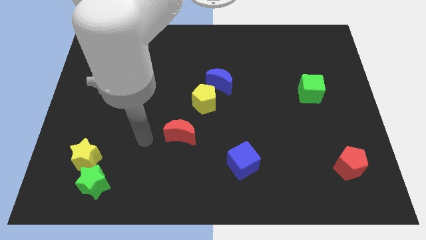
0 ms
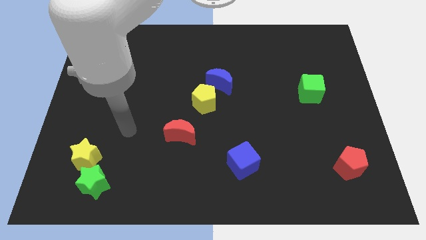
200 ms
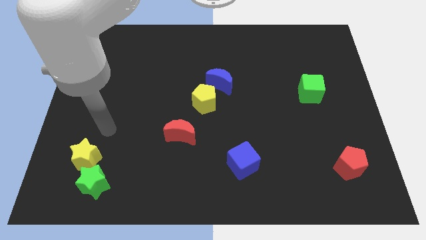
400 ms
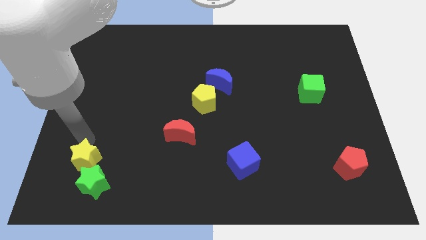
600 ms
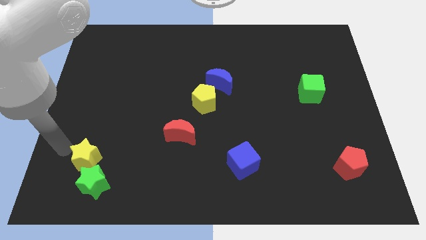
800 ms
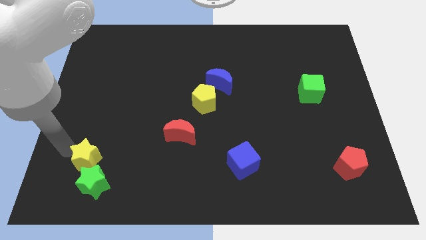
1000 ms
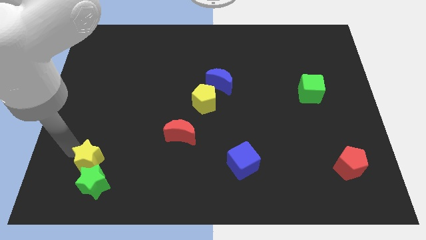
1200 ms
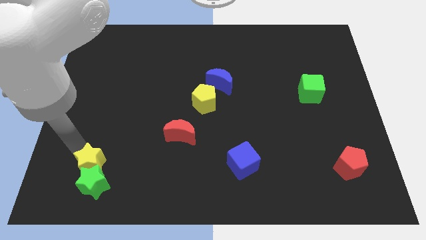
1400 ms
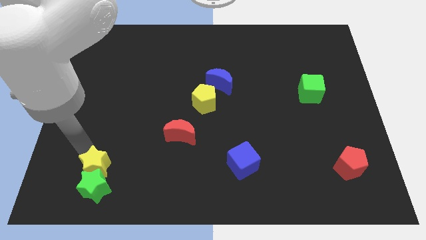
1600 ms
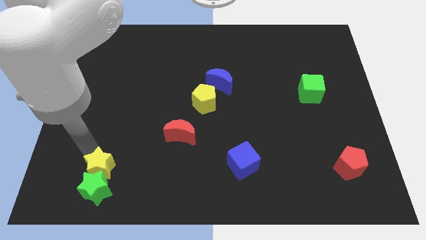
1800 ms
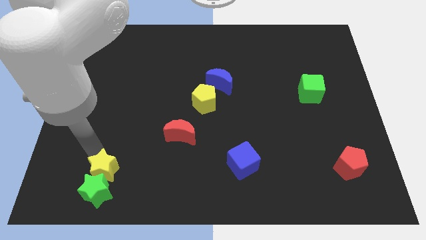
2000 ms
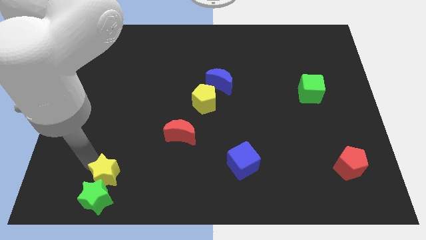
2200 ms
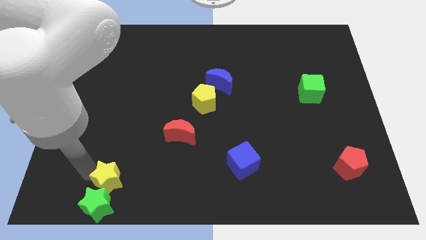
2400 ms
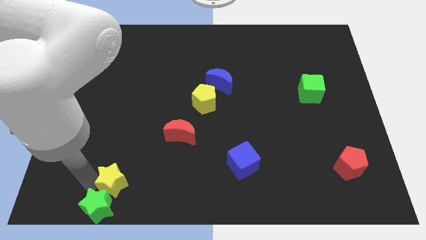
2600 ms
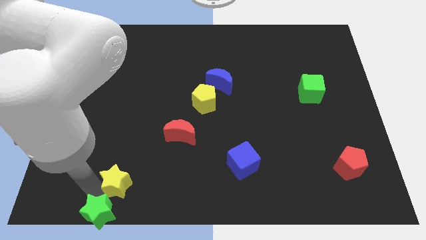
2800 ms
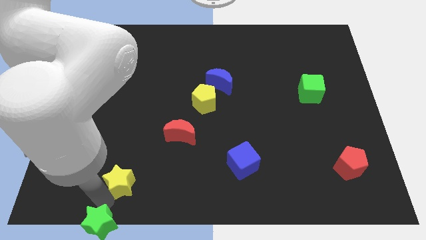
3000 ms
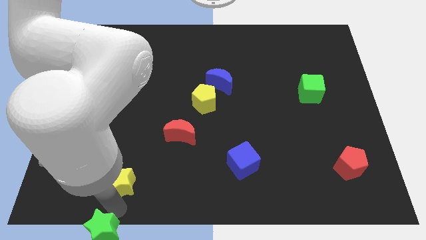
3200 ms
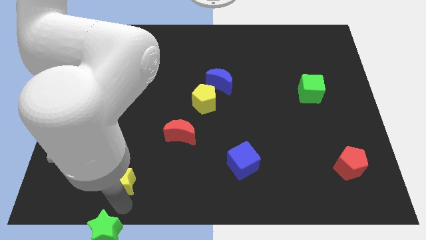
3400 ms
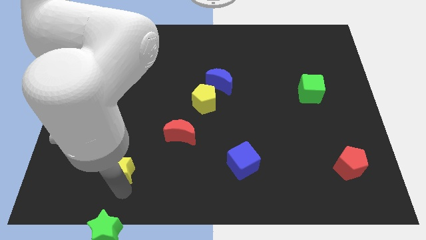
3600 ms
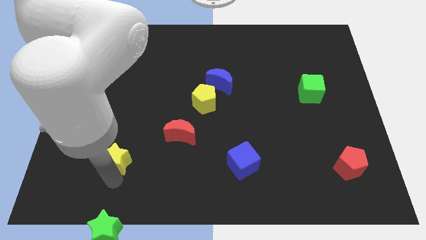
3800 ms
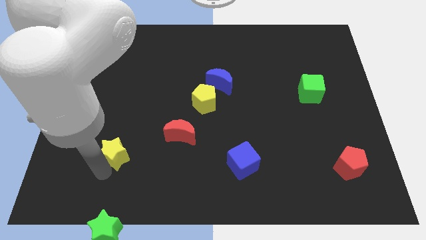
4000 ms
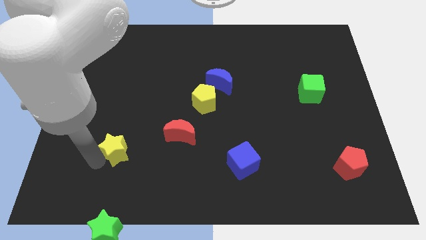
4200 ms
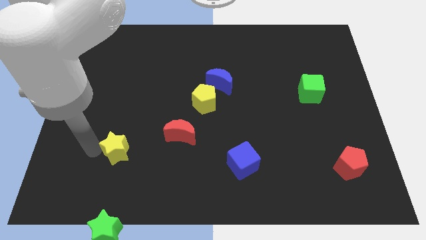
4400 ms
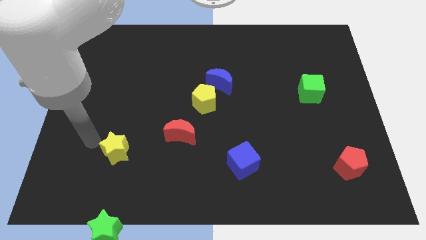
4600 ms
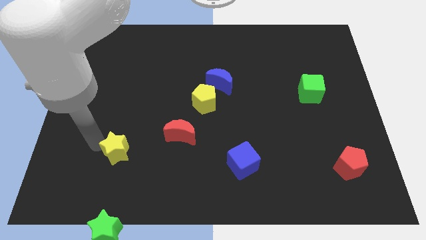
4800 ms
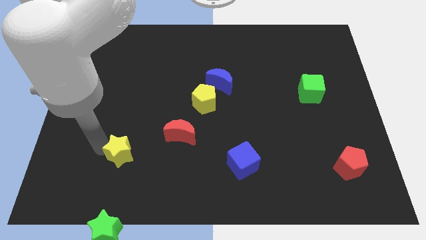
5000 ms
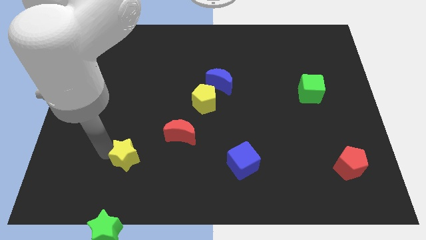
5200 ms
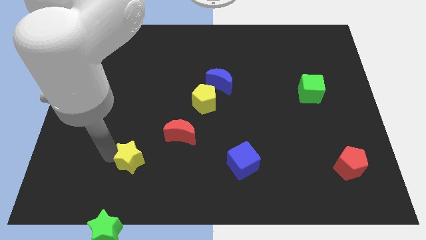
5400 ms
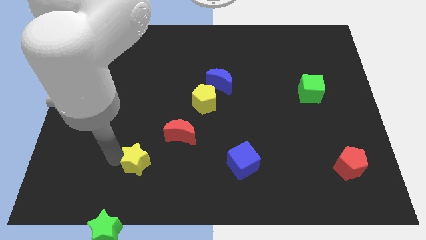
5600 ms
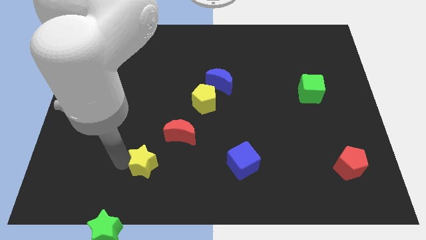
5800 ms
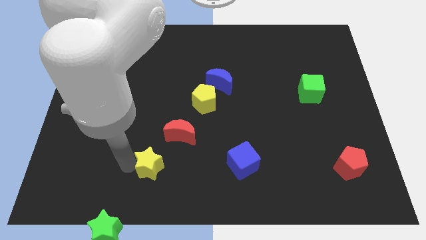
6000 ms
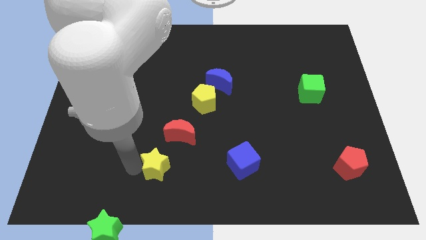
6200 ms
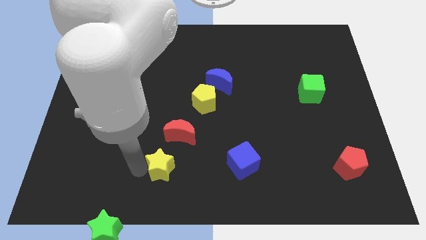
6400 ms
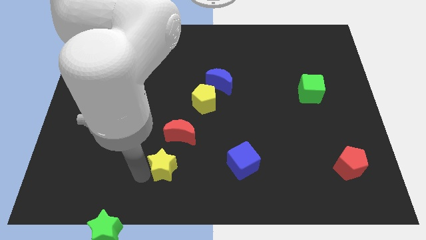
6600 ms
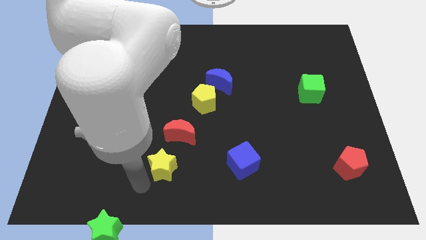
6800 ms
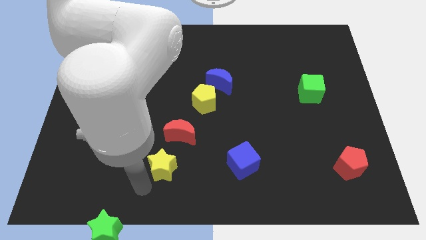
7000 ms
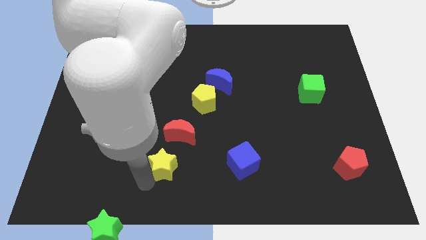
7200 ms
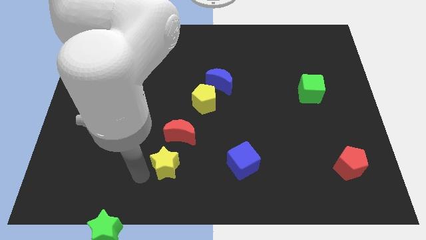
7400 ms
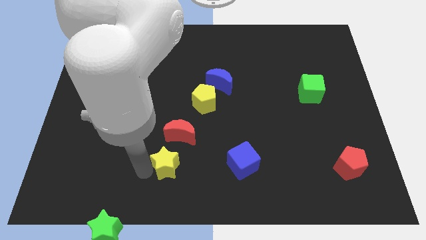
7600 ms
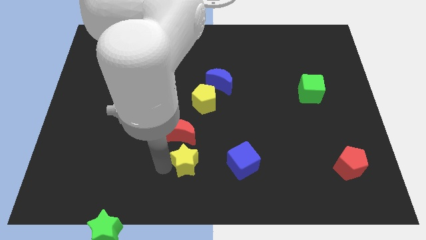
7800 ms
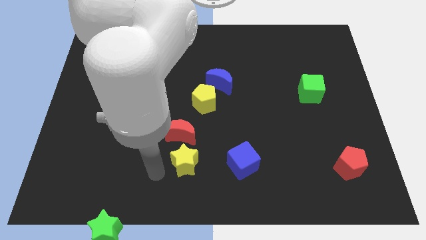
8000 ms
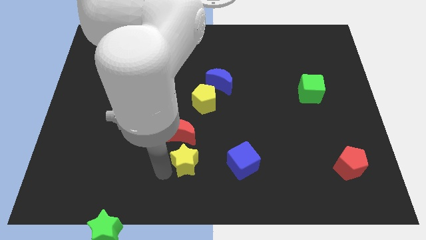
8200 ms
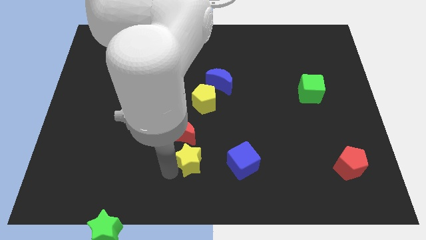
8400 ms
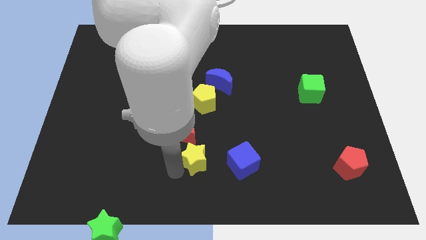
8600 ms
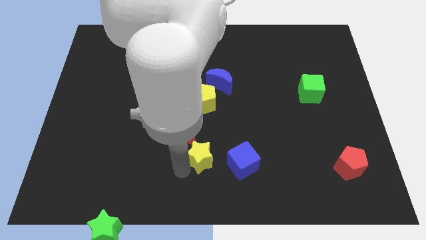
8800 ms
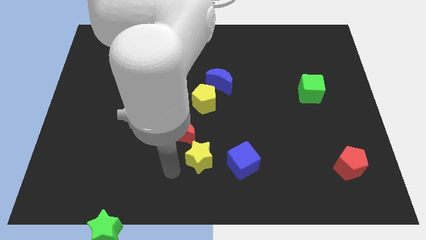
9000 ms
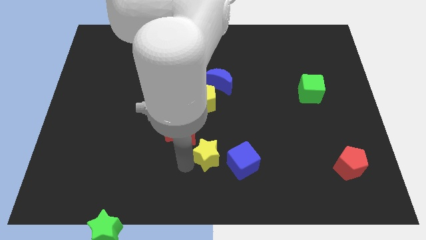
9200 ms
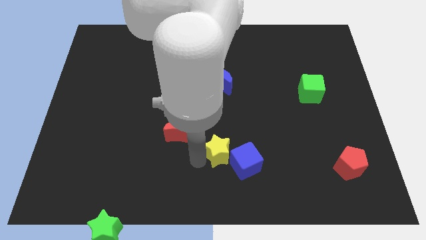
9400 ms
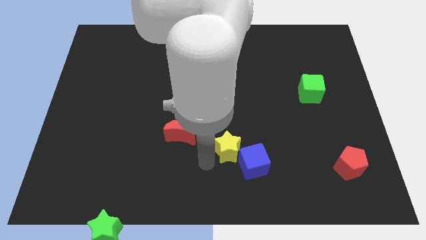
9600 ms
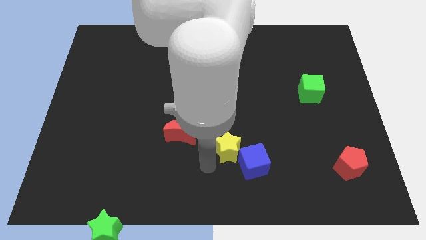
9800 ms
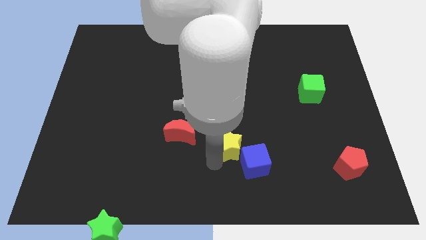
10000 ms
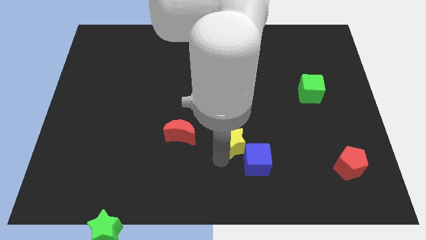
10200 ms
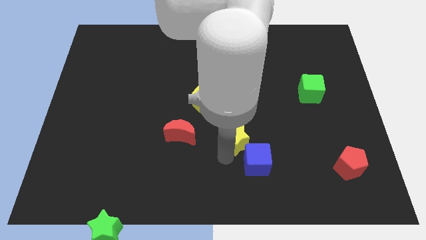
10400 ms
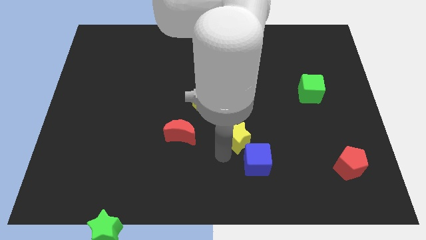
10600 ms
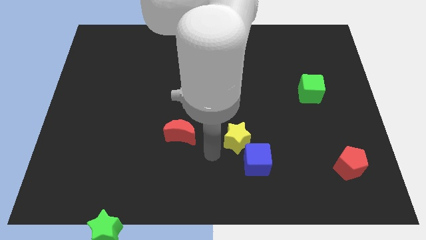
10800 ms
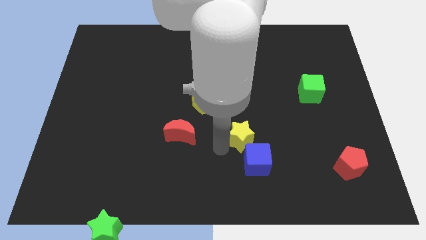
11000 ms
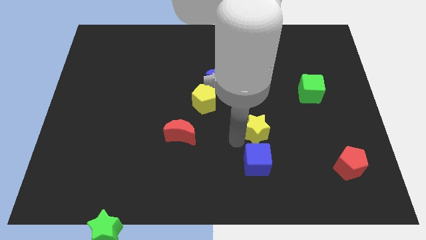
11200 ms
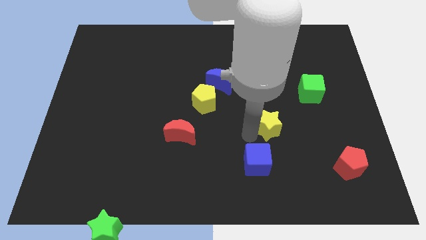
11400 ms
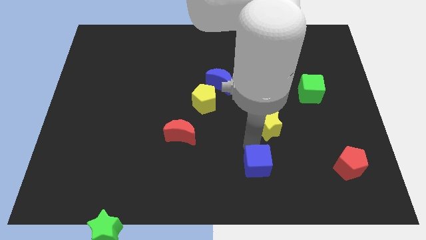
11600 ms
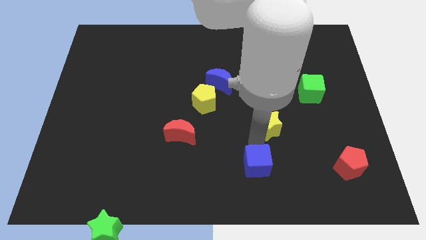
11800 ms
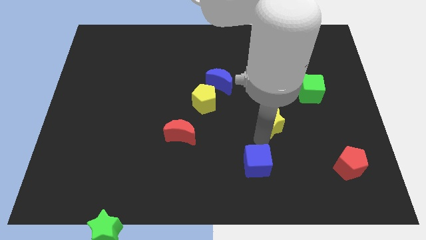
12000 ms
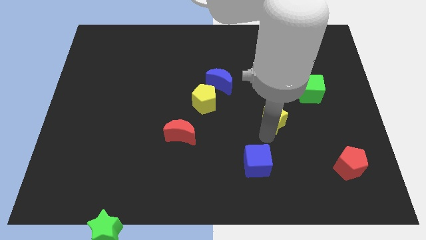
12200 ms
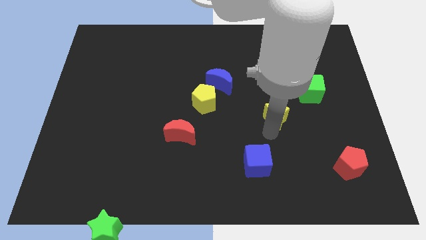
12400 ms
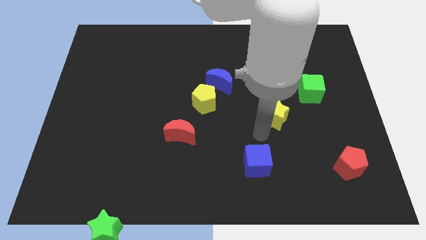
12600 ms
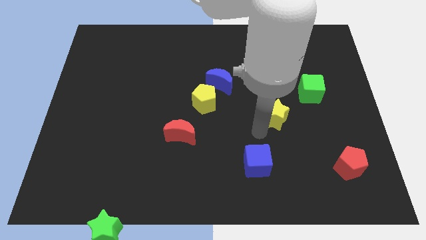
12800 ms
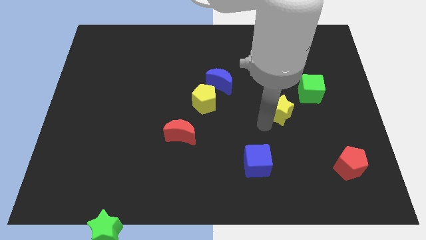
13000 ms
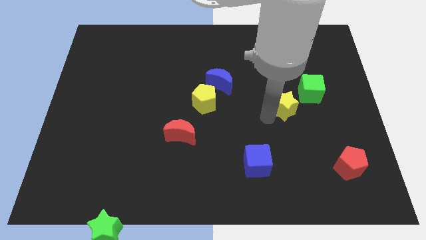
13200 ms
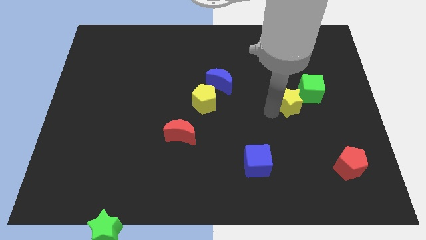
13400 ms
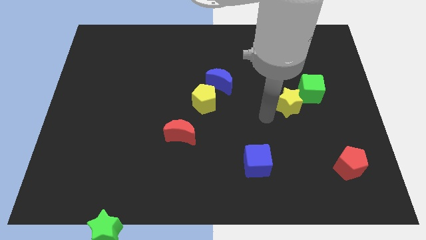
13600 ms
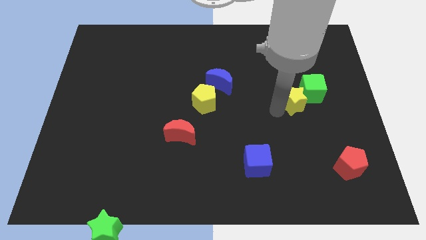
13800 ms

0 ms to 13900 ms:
push the yellow star close to the green cube

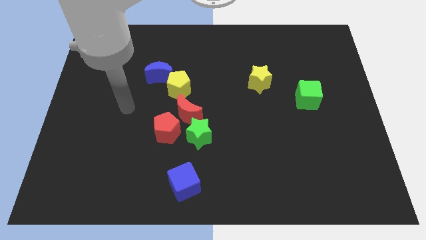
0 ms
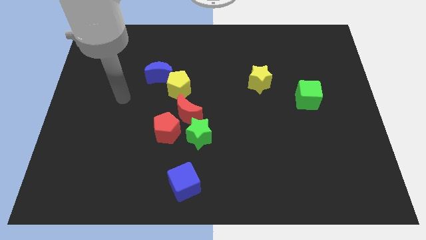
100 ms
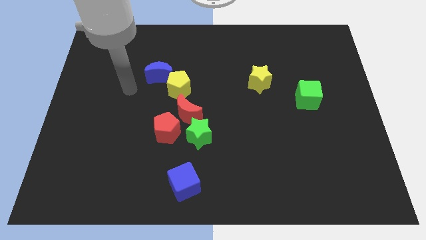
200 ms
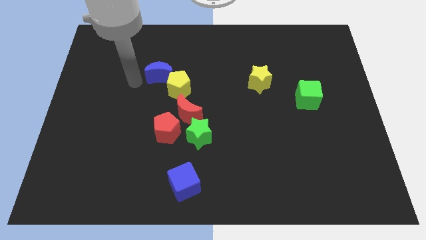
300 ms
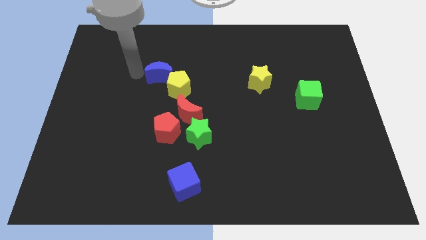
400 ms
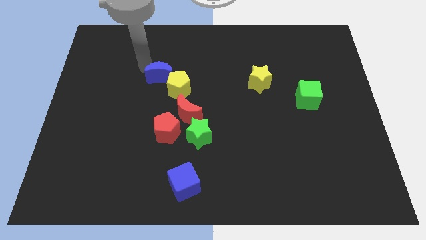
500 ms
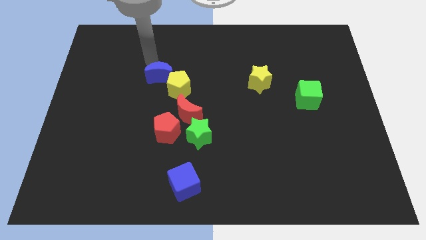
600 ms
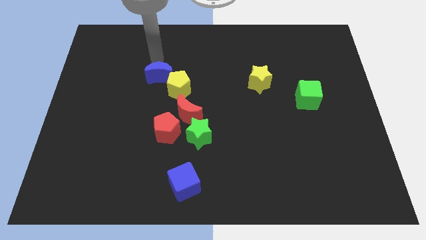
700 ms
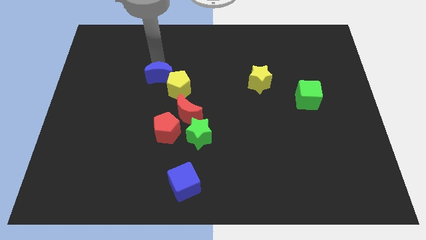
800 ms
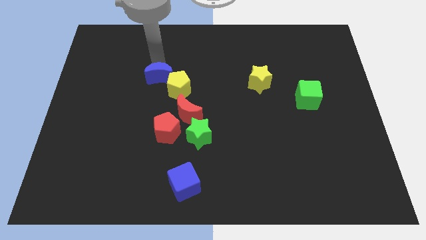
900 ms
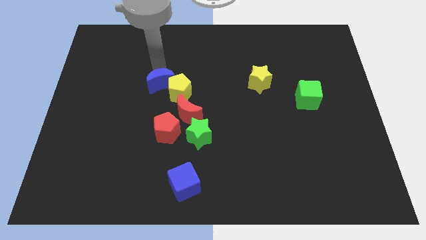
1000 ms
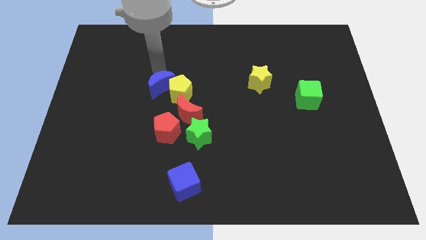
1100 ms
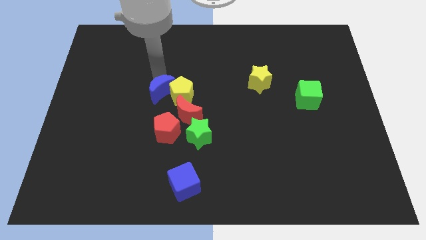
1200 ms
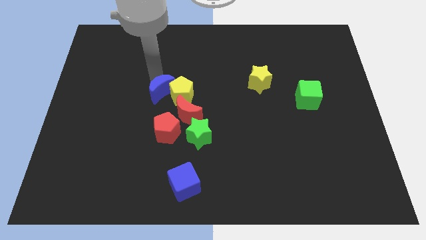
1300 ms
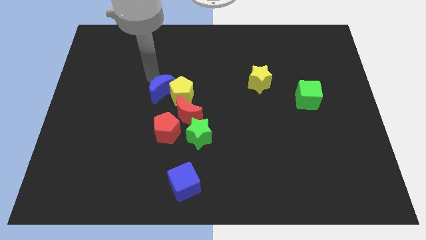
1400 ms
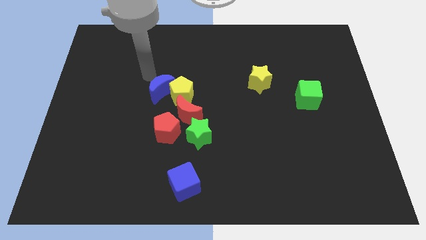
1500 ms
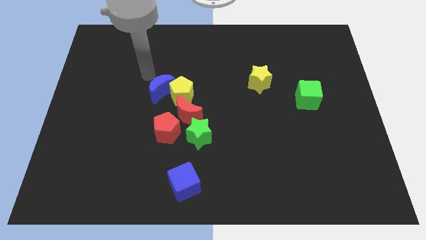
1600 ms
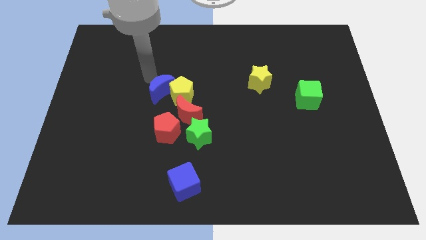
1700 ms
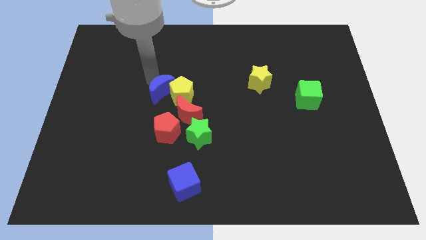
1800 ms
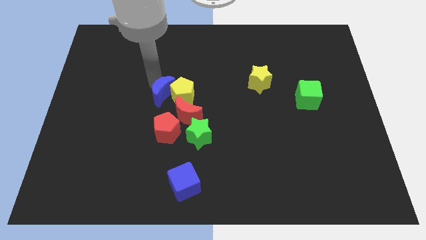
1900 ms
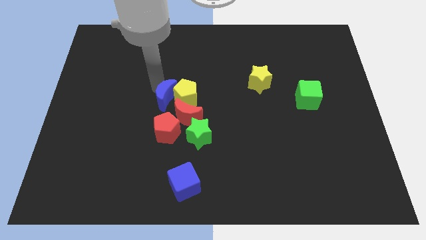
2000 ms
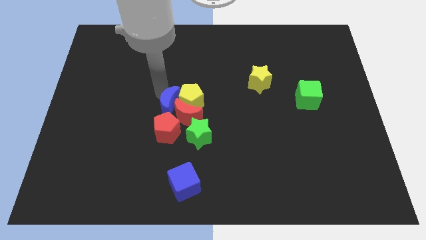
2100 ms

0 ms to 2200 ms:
slide the blue moon close to the red moon
